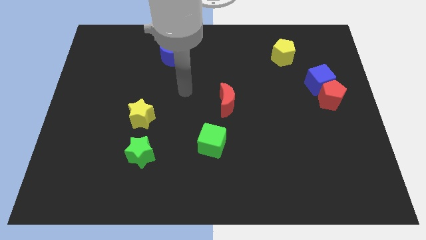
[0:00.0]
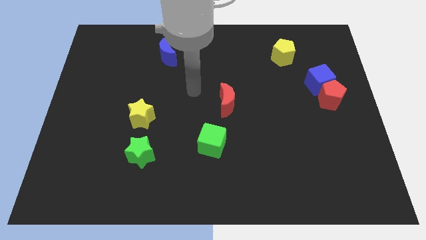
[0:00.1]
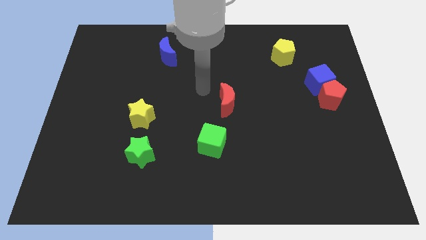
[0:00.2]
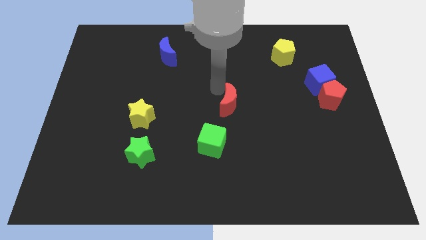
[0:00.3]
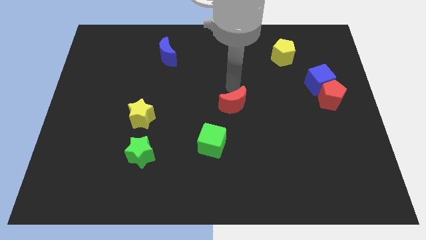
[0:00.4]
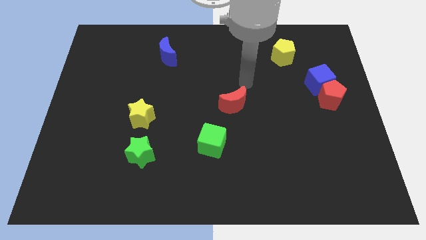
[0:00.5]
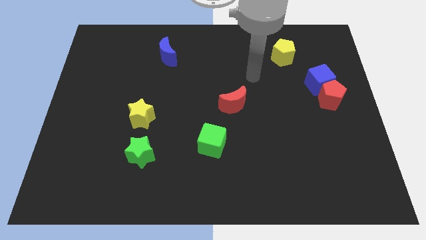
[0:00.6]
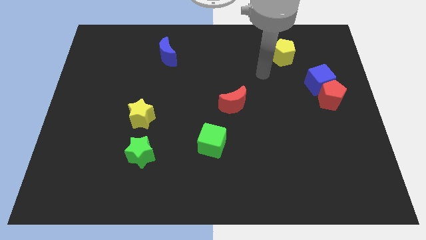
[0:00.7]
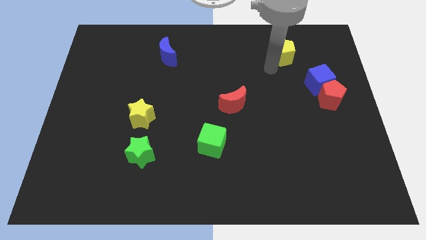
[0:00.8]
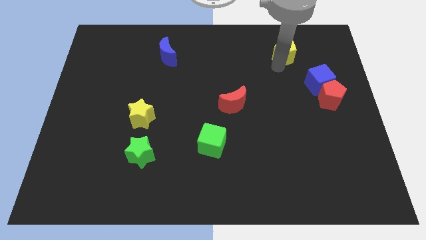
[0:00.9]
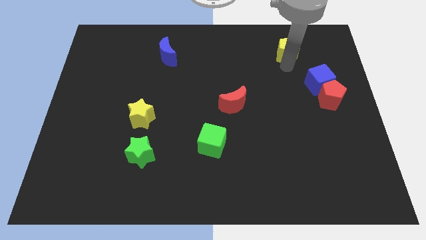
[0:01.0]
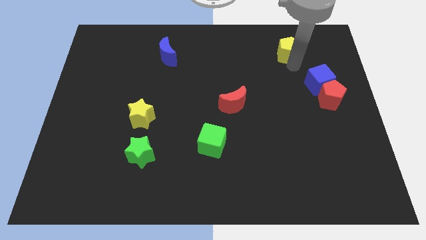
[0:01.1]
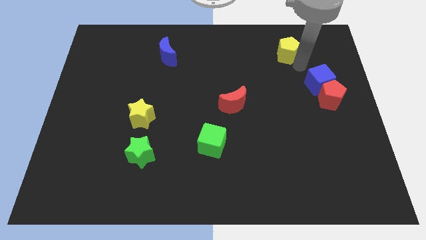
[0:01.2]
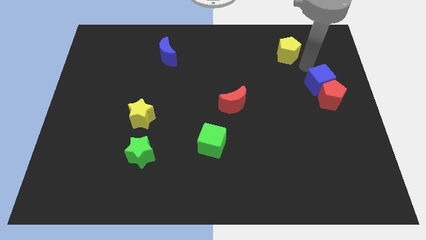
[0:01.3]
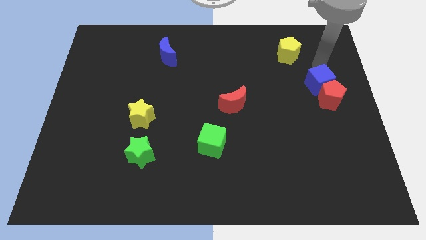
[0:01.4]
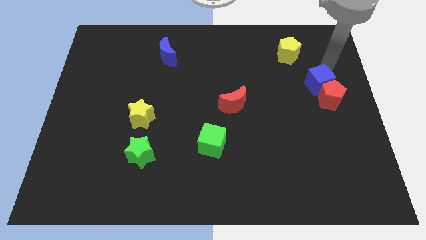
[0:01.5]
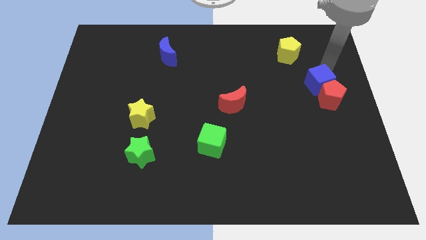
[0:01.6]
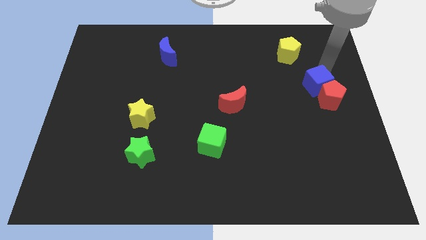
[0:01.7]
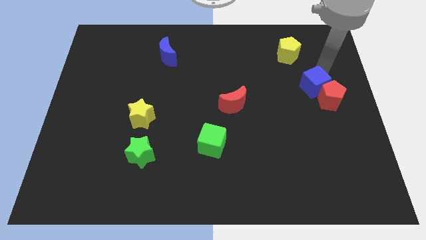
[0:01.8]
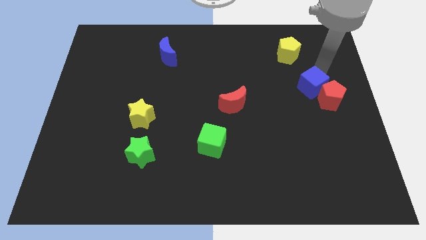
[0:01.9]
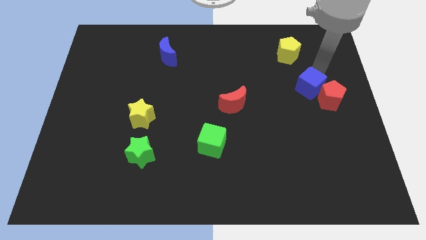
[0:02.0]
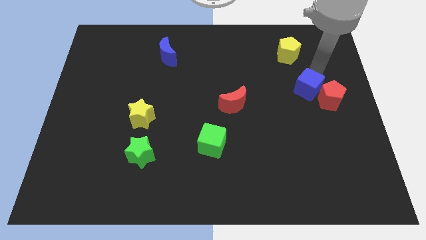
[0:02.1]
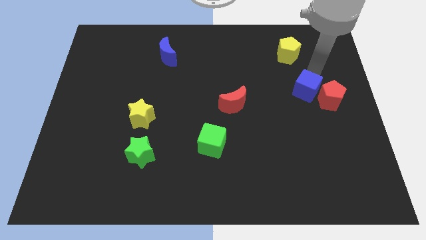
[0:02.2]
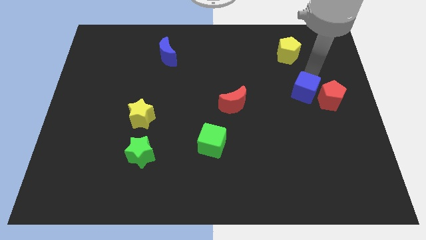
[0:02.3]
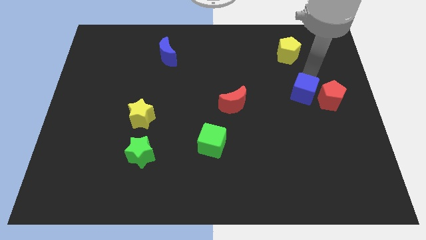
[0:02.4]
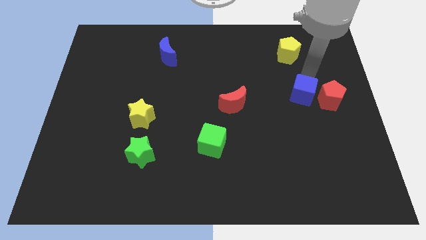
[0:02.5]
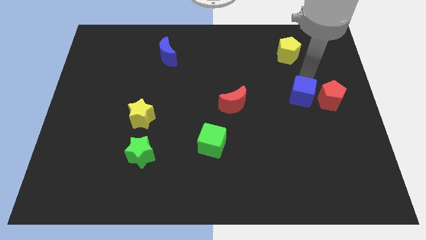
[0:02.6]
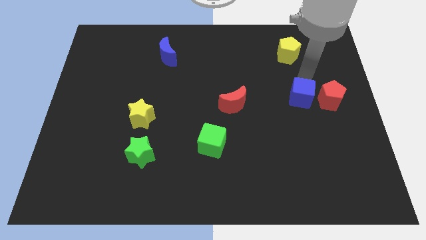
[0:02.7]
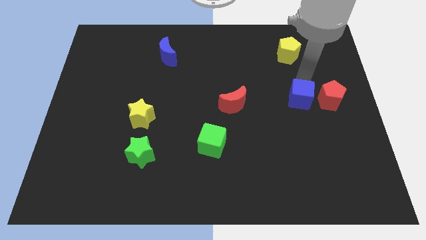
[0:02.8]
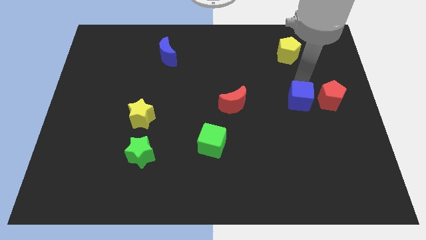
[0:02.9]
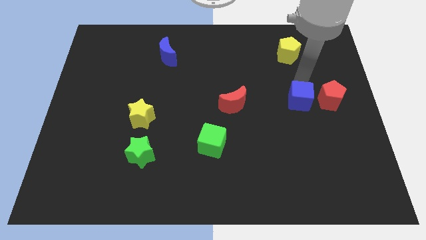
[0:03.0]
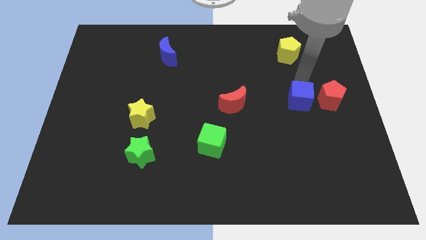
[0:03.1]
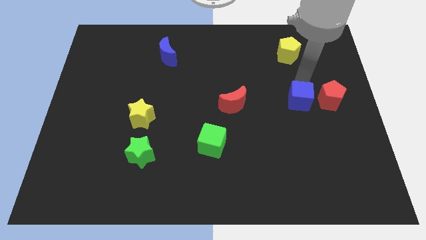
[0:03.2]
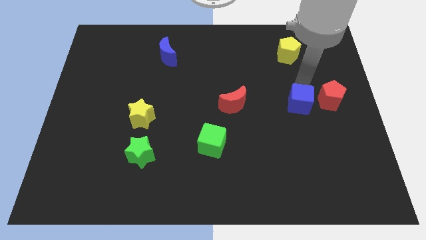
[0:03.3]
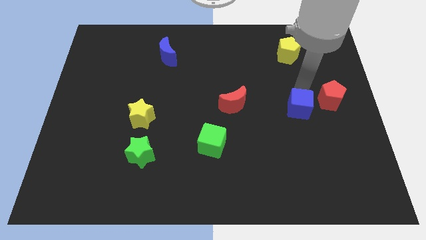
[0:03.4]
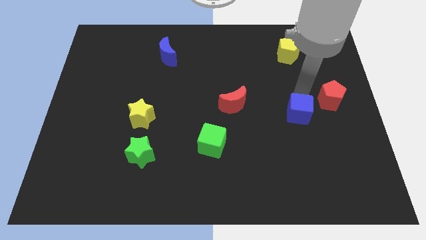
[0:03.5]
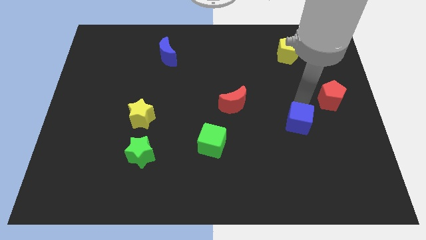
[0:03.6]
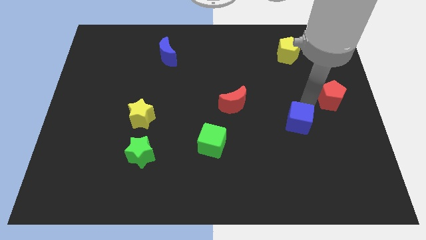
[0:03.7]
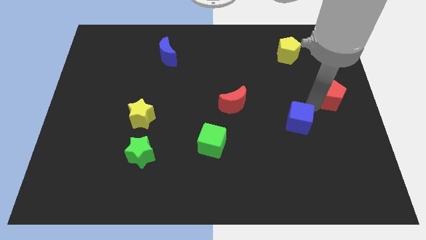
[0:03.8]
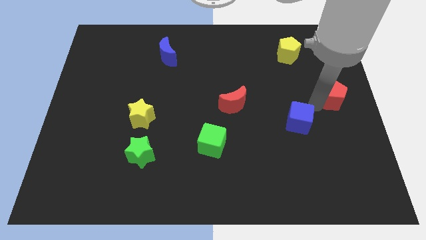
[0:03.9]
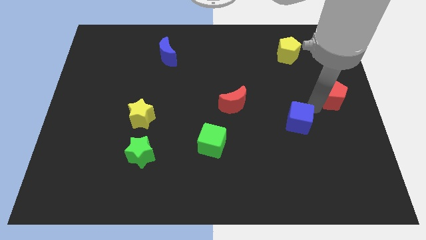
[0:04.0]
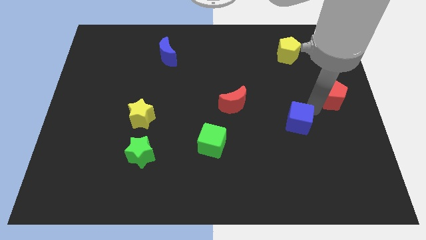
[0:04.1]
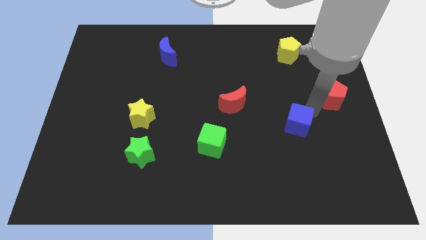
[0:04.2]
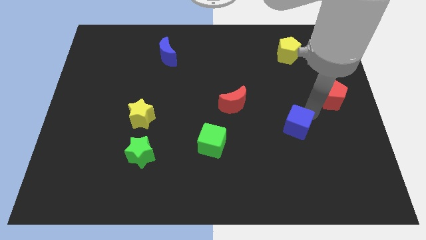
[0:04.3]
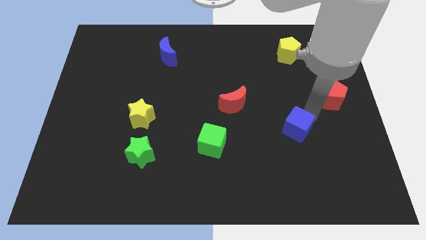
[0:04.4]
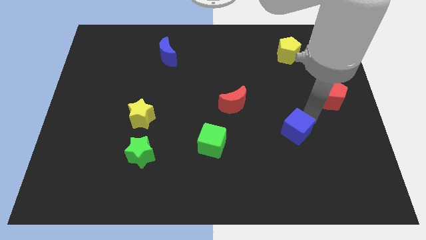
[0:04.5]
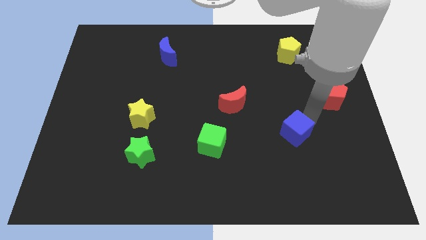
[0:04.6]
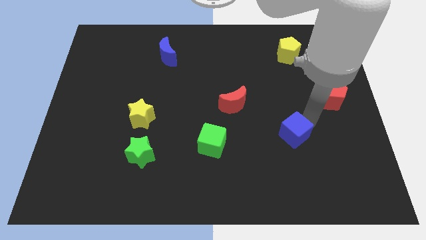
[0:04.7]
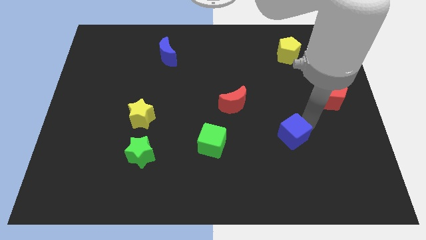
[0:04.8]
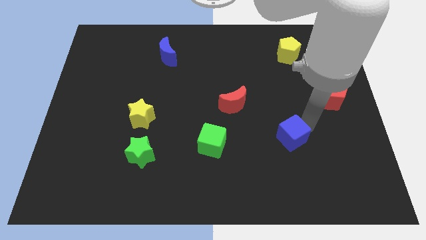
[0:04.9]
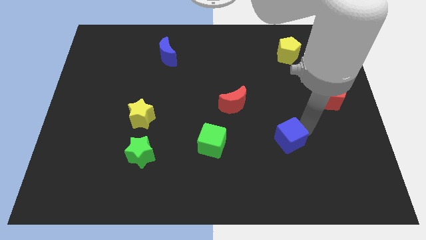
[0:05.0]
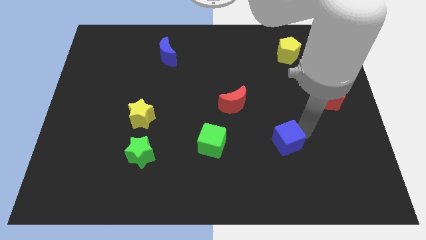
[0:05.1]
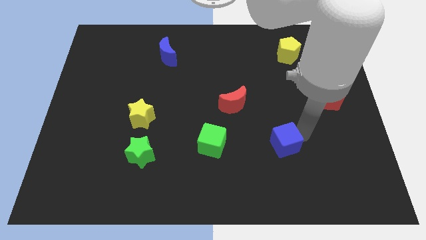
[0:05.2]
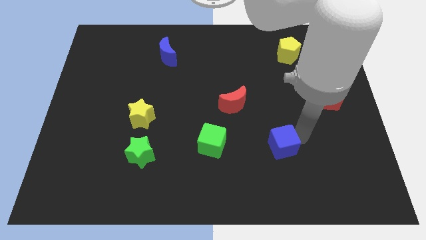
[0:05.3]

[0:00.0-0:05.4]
slide the blue cube down and to the left diagonally

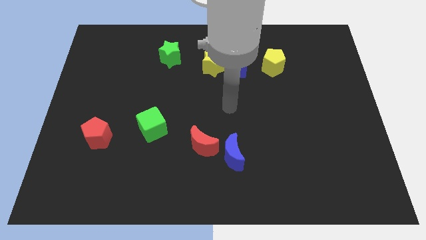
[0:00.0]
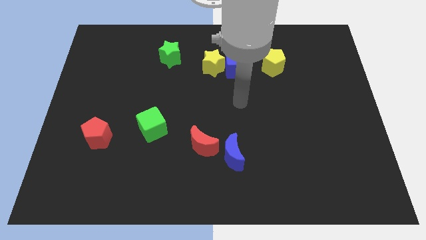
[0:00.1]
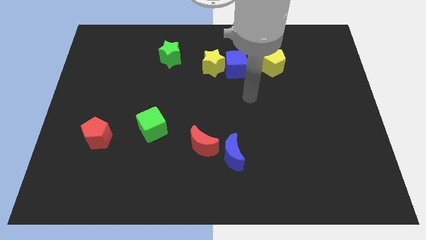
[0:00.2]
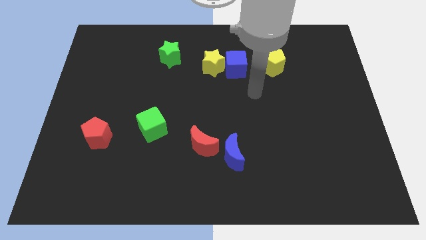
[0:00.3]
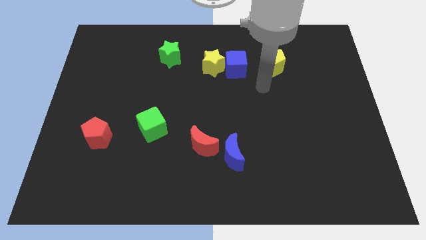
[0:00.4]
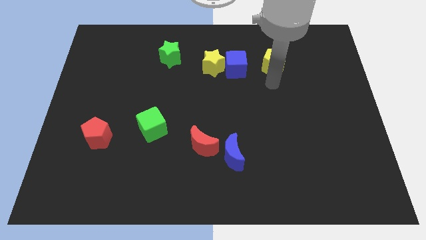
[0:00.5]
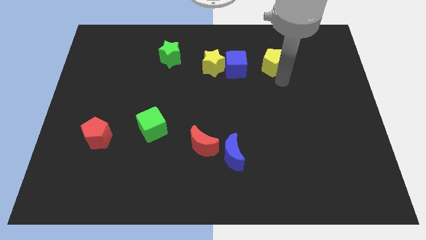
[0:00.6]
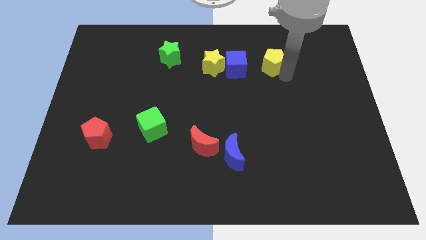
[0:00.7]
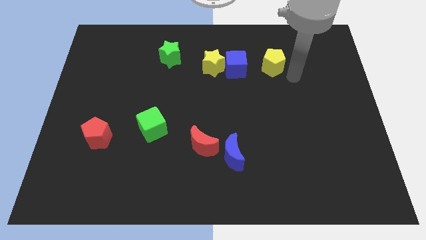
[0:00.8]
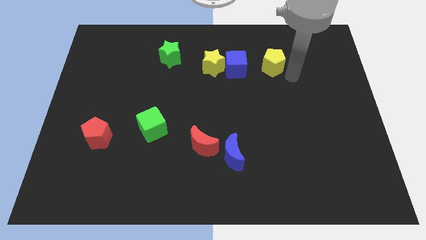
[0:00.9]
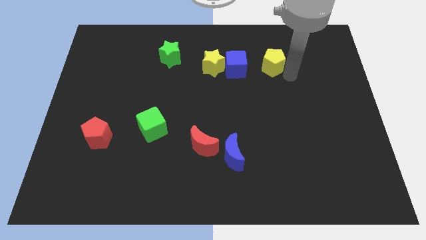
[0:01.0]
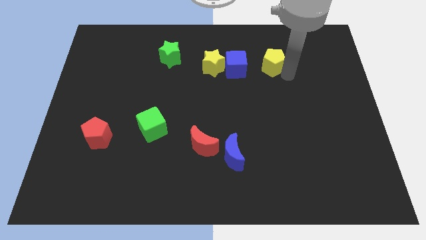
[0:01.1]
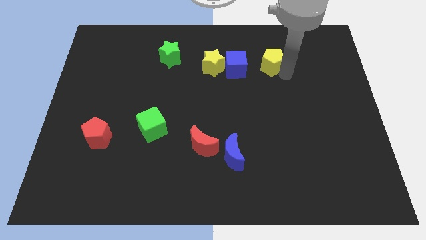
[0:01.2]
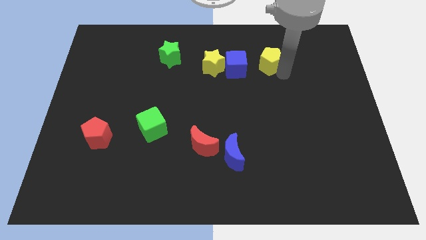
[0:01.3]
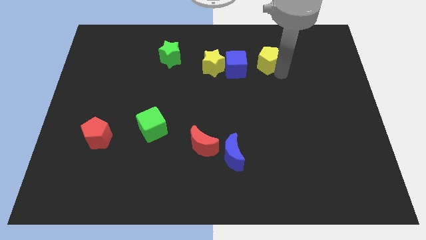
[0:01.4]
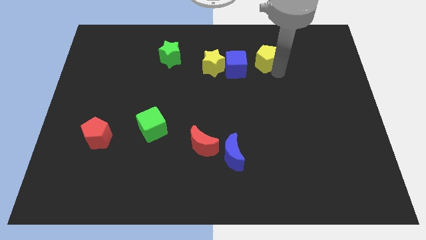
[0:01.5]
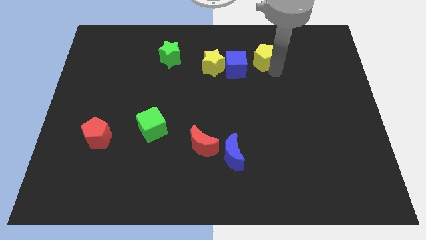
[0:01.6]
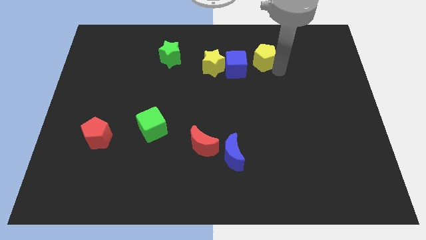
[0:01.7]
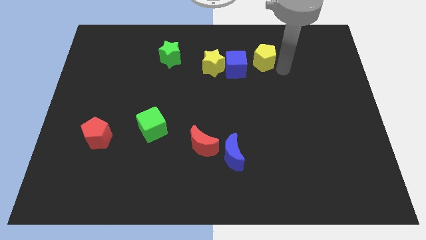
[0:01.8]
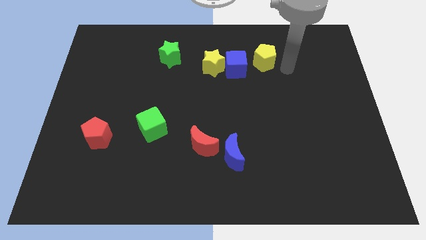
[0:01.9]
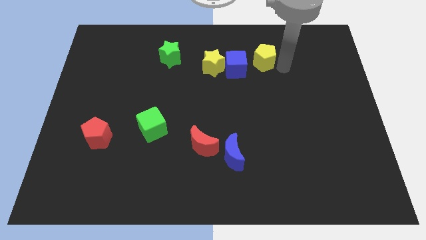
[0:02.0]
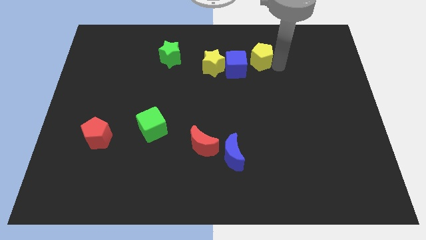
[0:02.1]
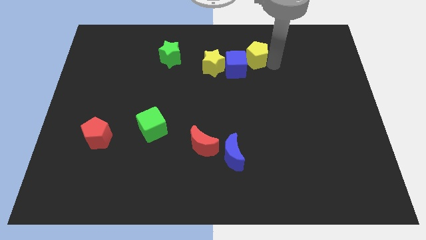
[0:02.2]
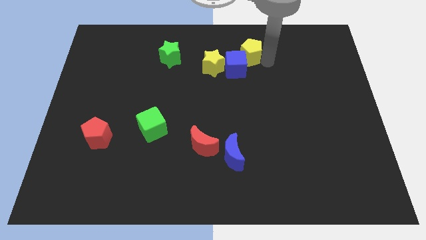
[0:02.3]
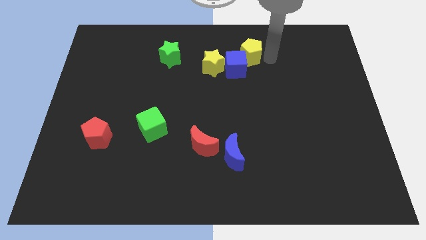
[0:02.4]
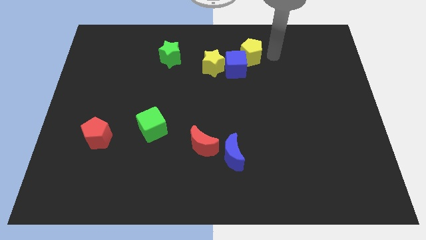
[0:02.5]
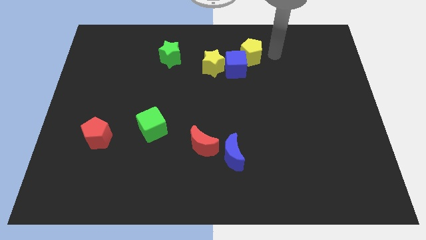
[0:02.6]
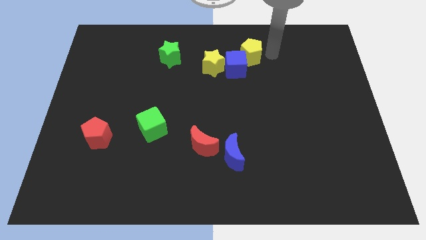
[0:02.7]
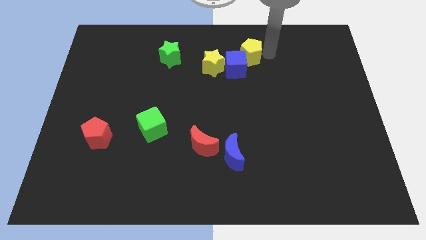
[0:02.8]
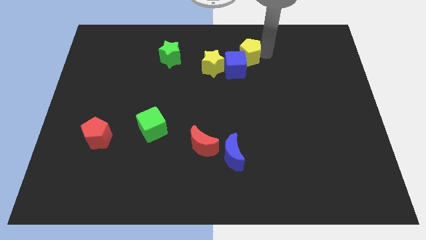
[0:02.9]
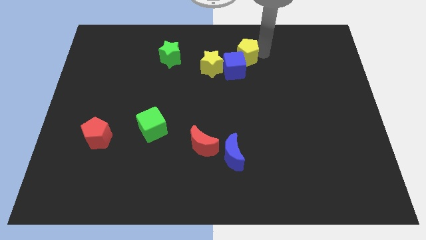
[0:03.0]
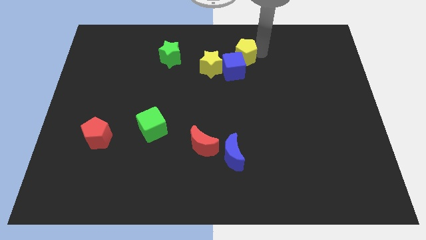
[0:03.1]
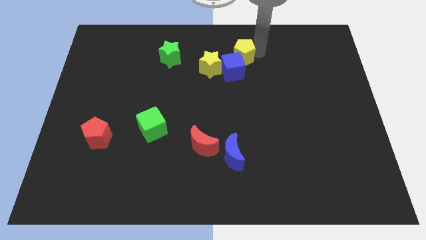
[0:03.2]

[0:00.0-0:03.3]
move the yellow pentagon a little bit to the left
